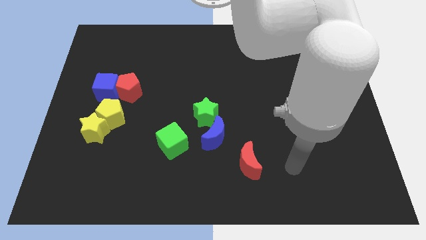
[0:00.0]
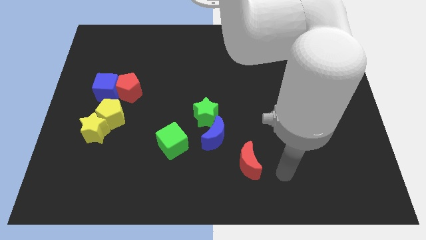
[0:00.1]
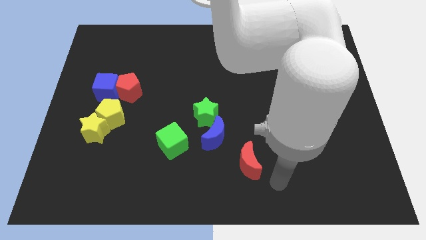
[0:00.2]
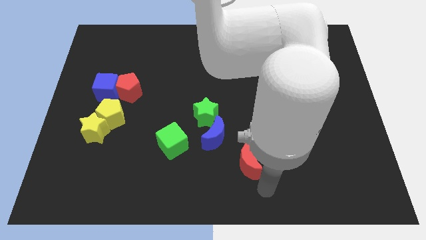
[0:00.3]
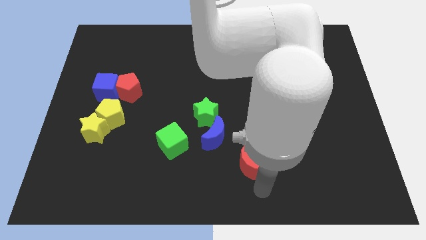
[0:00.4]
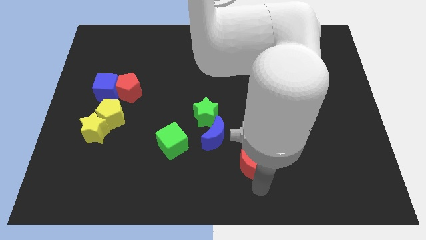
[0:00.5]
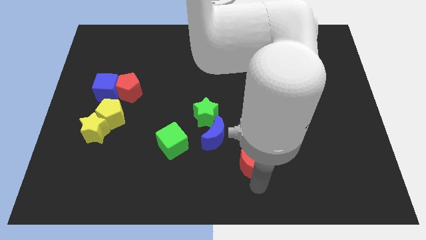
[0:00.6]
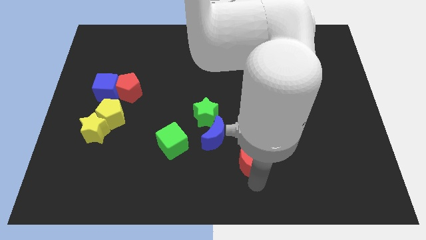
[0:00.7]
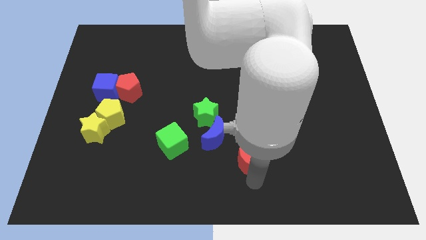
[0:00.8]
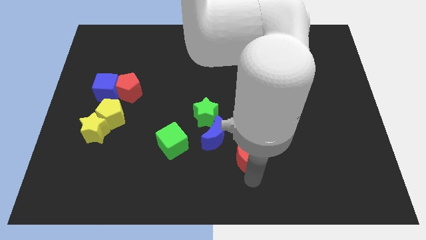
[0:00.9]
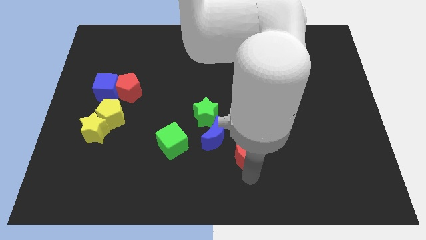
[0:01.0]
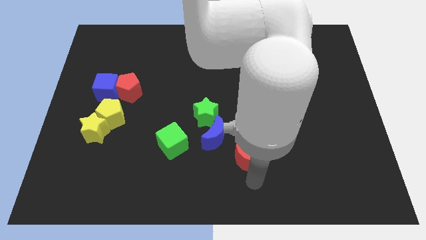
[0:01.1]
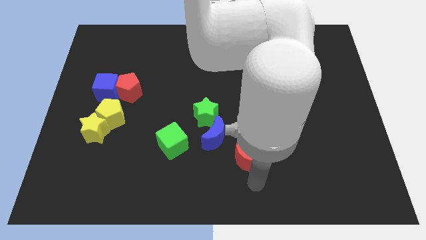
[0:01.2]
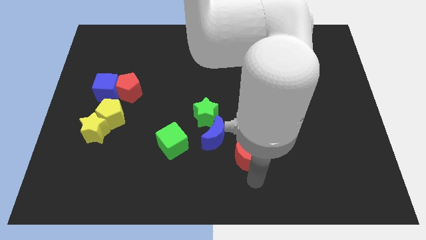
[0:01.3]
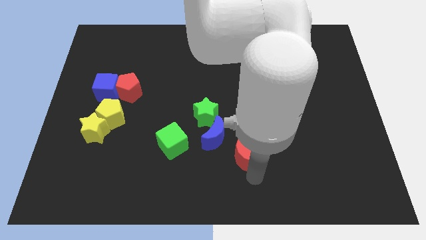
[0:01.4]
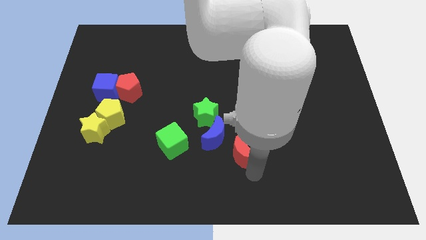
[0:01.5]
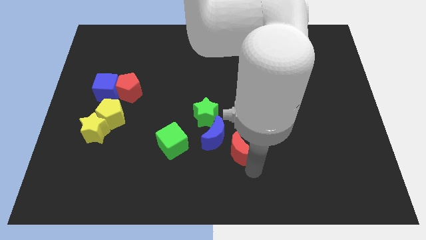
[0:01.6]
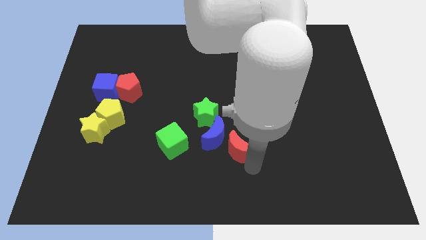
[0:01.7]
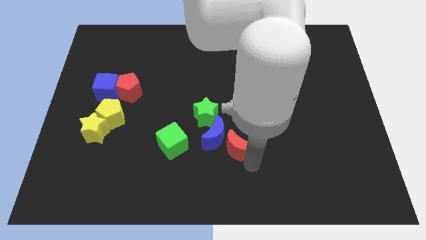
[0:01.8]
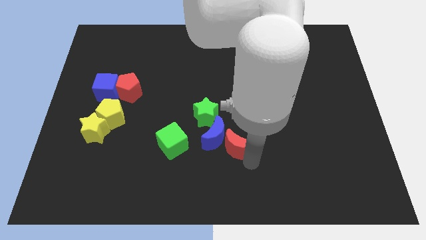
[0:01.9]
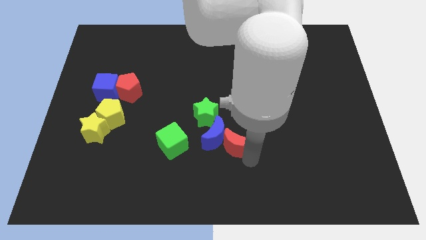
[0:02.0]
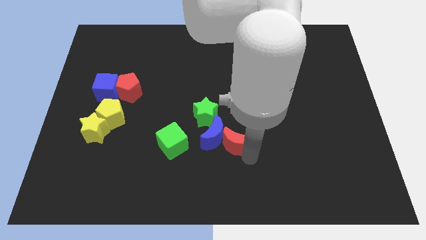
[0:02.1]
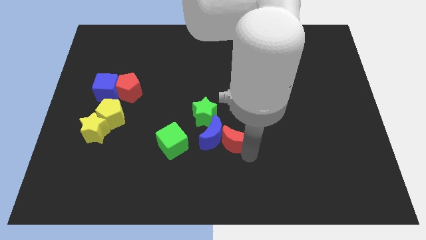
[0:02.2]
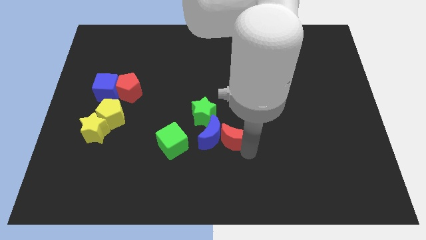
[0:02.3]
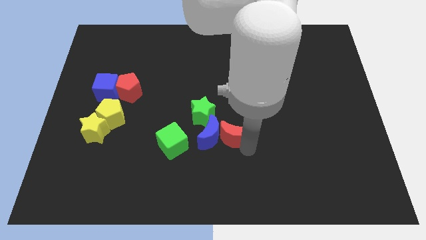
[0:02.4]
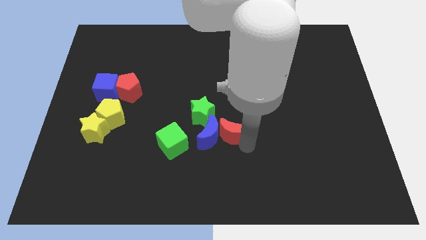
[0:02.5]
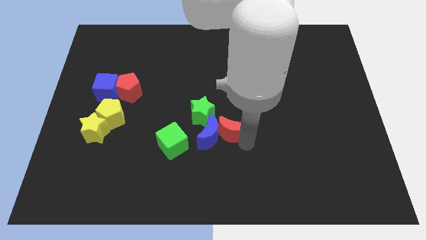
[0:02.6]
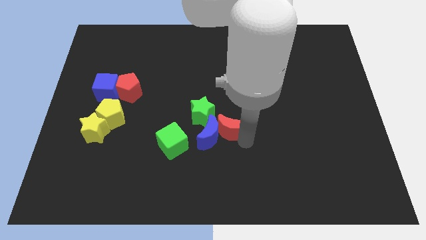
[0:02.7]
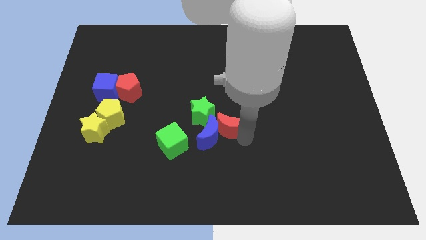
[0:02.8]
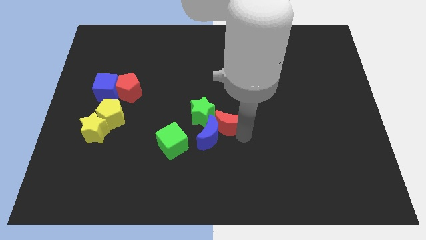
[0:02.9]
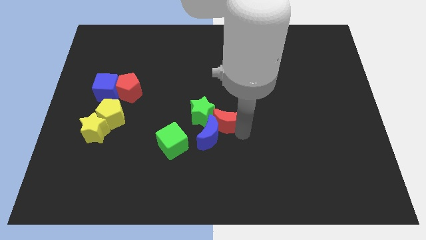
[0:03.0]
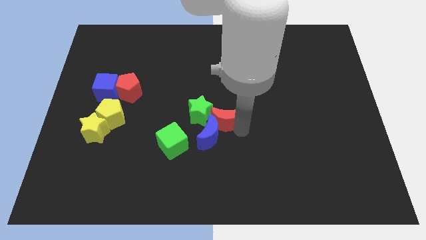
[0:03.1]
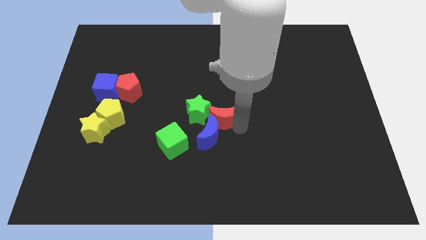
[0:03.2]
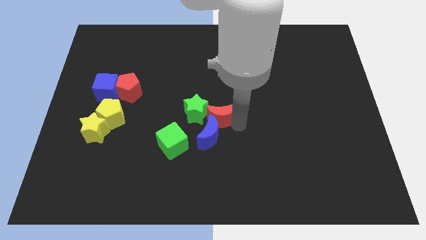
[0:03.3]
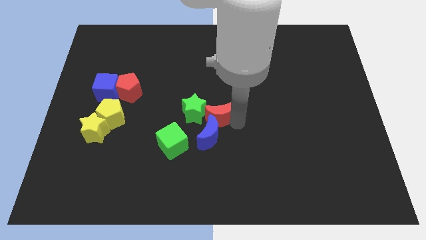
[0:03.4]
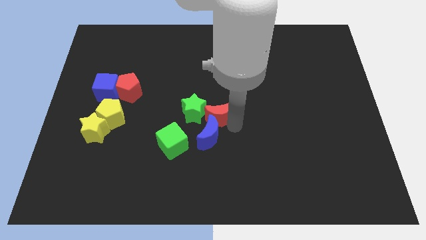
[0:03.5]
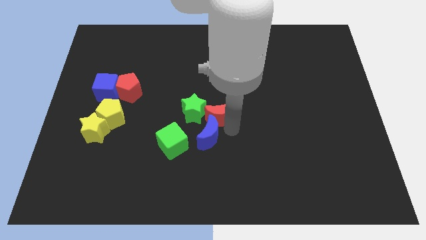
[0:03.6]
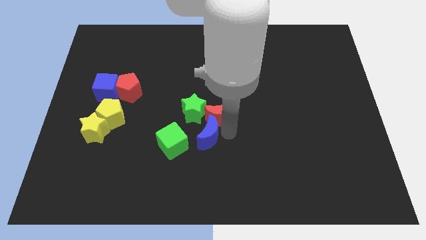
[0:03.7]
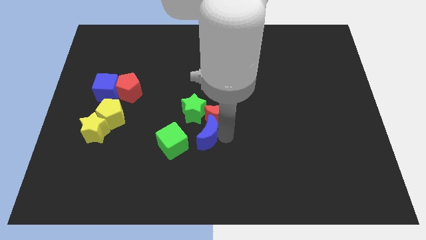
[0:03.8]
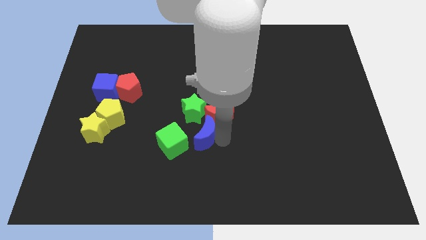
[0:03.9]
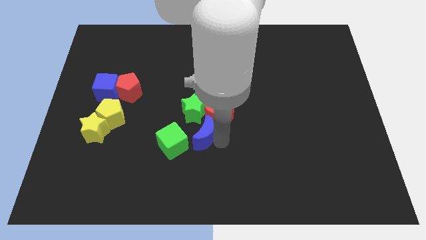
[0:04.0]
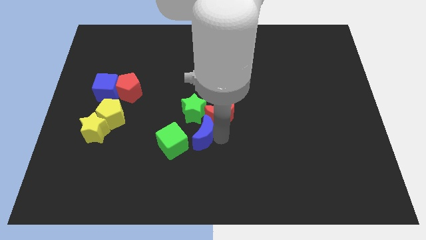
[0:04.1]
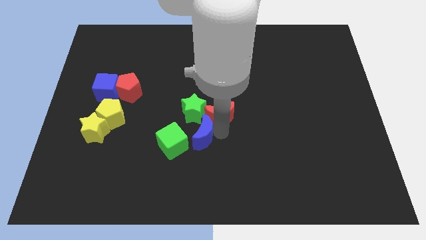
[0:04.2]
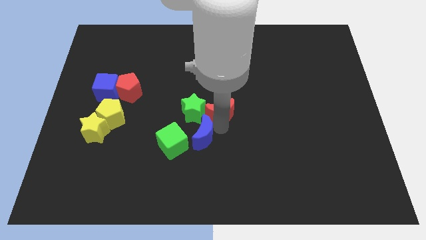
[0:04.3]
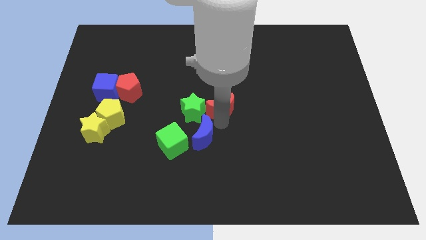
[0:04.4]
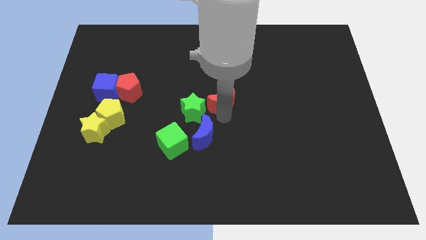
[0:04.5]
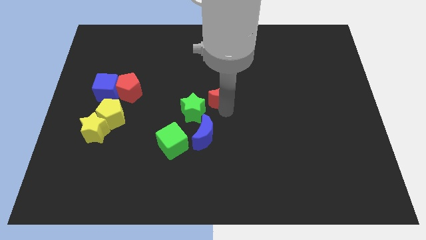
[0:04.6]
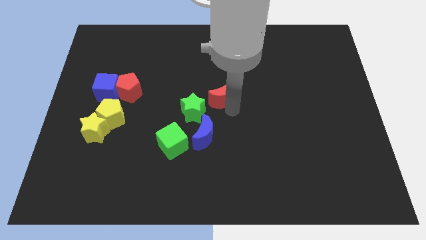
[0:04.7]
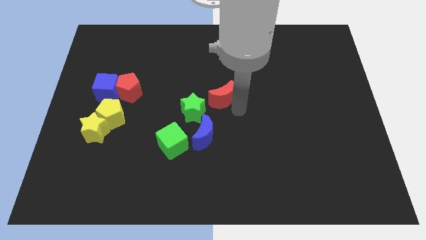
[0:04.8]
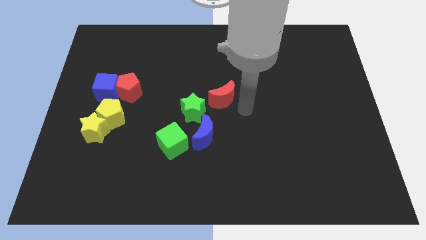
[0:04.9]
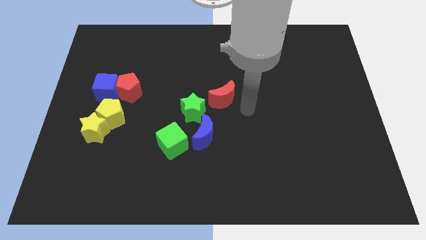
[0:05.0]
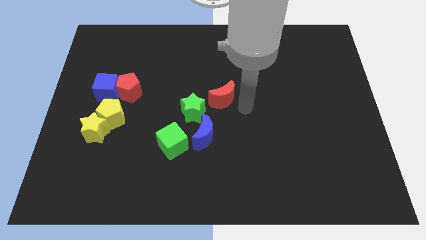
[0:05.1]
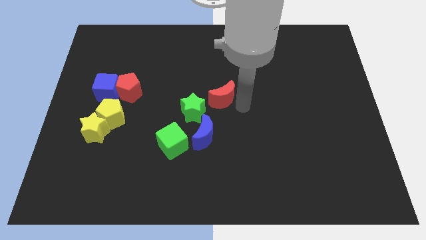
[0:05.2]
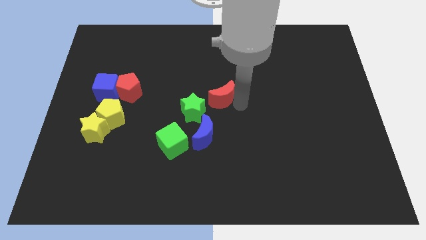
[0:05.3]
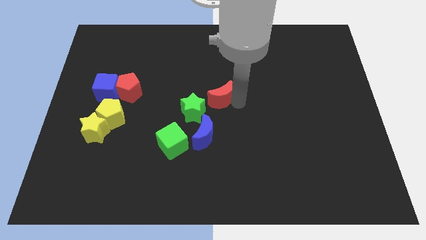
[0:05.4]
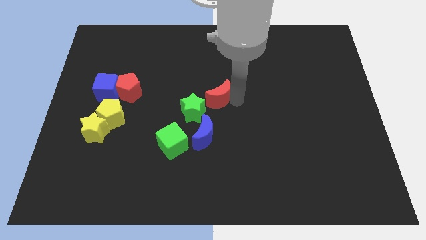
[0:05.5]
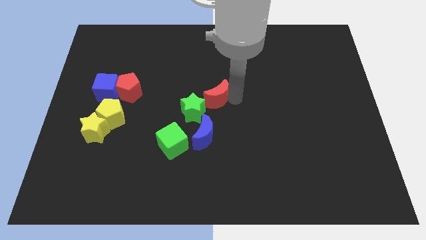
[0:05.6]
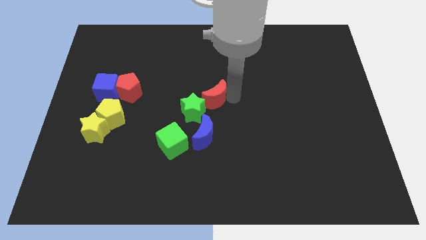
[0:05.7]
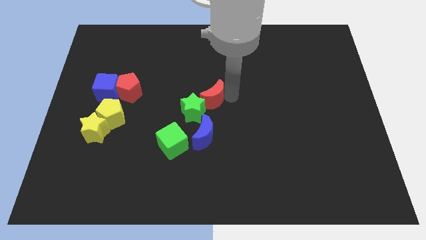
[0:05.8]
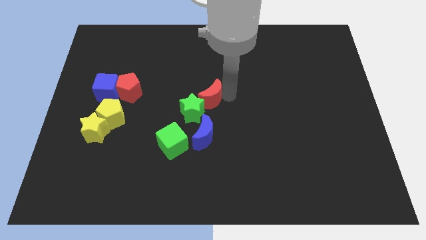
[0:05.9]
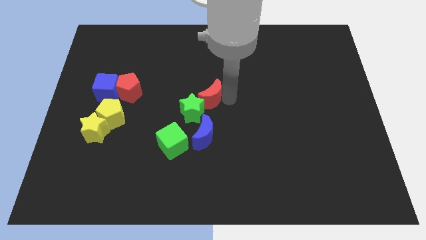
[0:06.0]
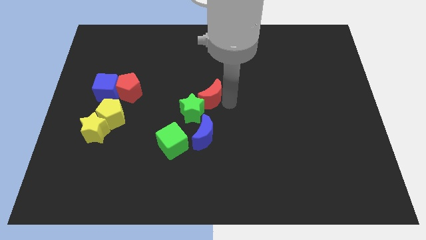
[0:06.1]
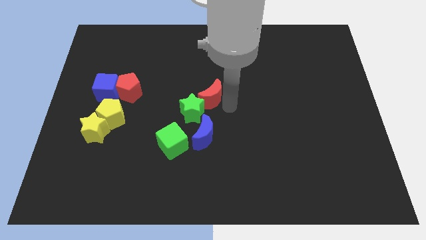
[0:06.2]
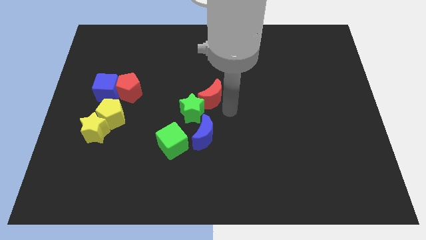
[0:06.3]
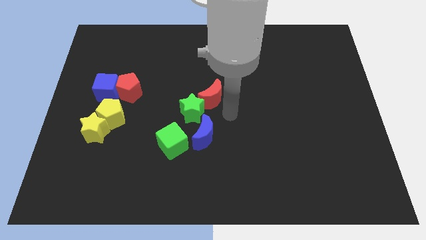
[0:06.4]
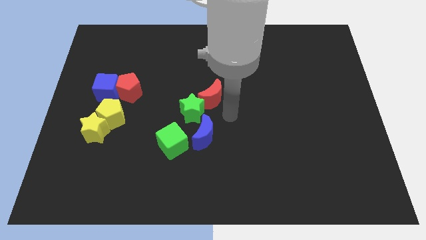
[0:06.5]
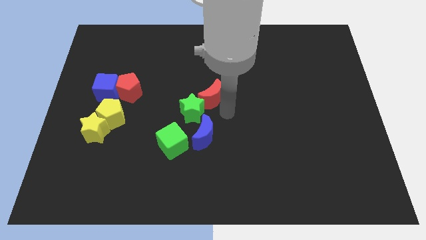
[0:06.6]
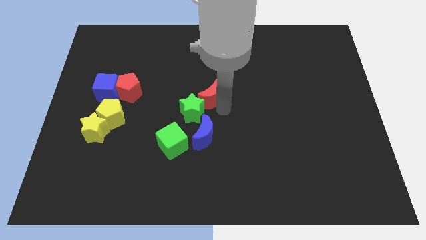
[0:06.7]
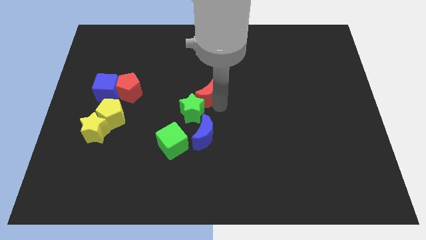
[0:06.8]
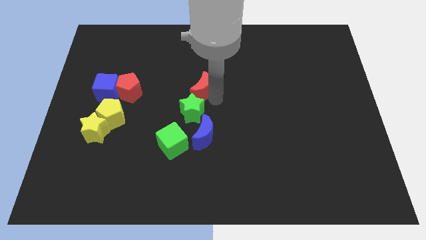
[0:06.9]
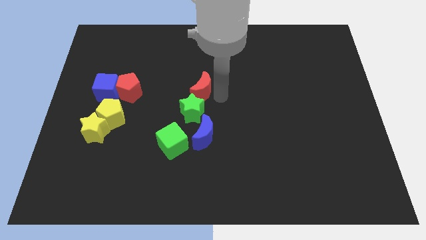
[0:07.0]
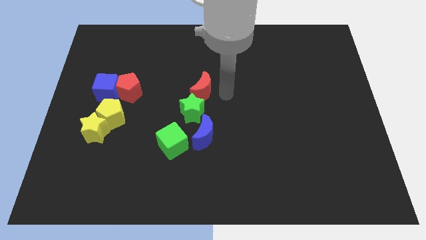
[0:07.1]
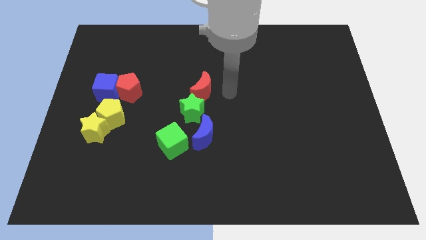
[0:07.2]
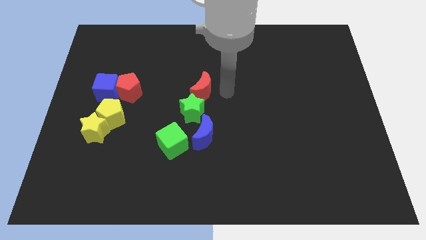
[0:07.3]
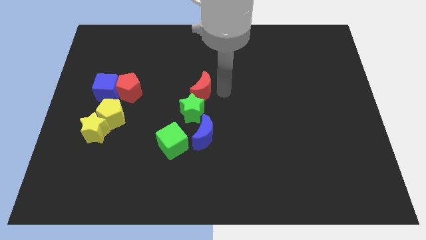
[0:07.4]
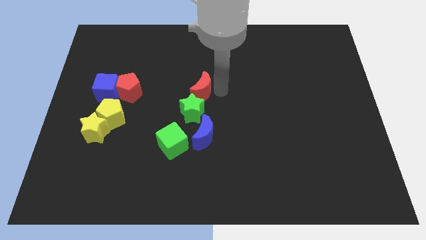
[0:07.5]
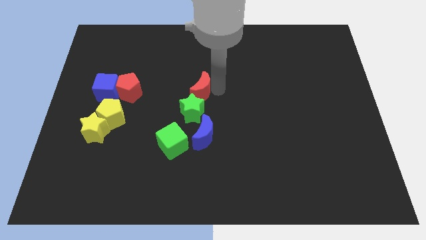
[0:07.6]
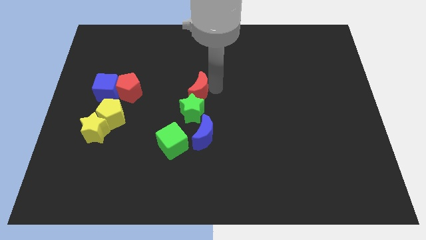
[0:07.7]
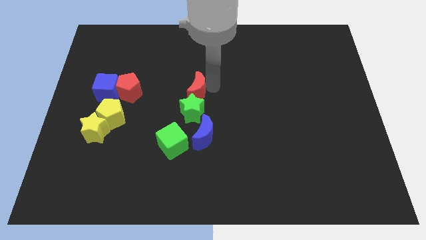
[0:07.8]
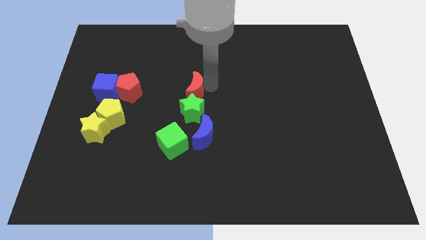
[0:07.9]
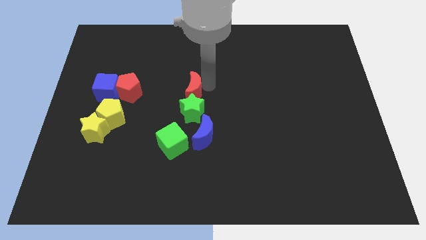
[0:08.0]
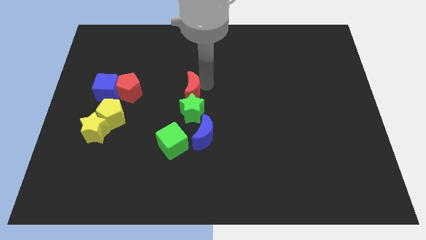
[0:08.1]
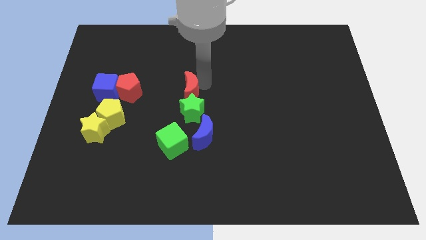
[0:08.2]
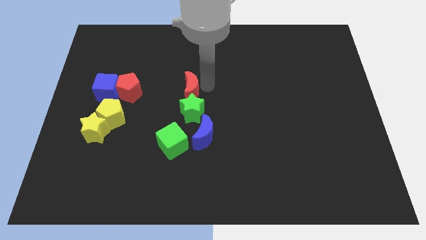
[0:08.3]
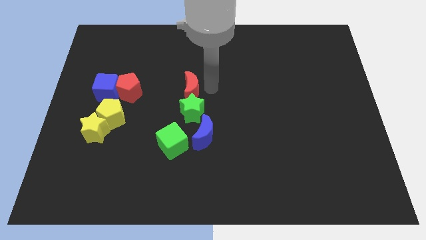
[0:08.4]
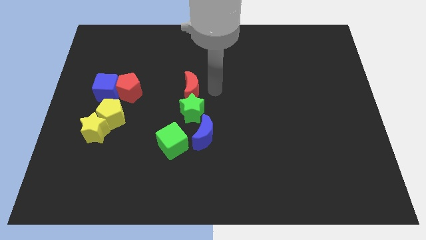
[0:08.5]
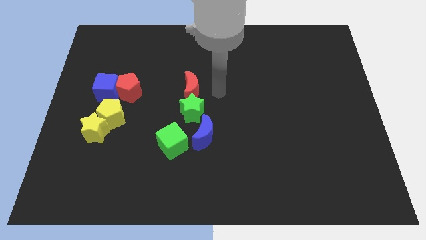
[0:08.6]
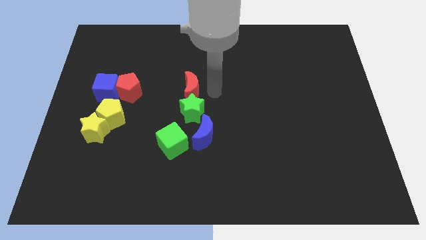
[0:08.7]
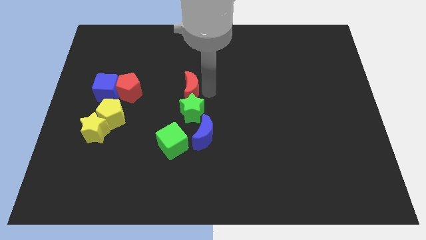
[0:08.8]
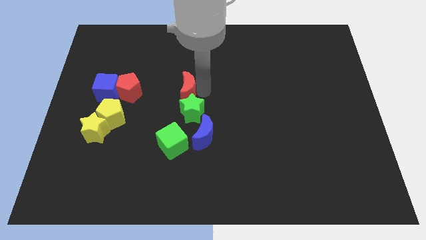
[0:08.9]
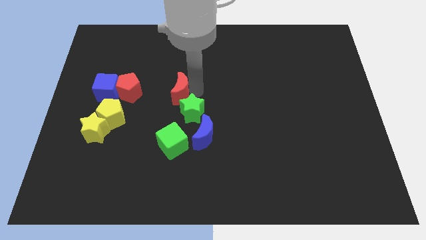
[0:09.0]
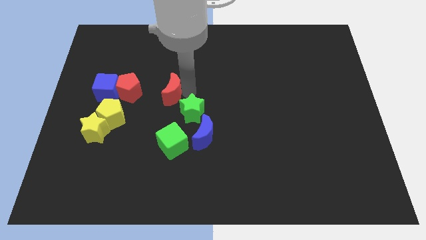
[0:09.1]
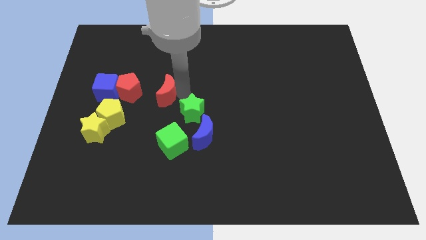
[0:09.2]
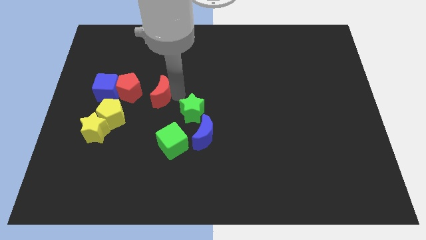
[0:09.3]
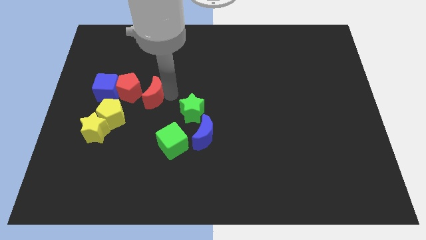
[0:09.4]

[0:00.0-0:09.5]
put the red moon diagonally up and to the right of the yellow pentagon
